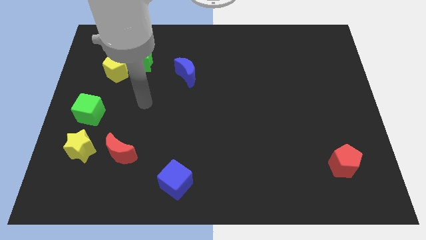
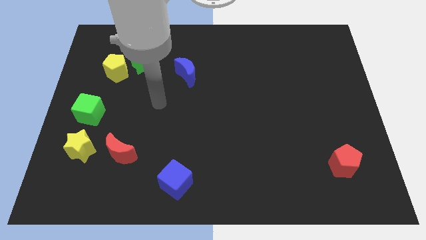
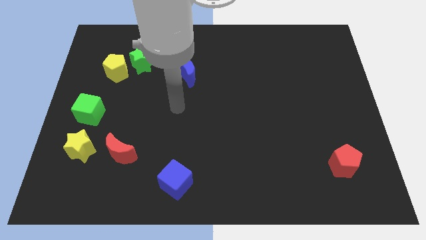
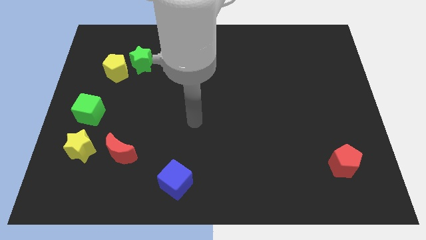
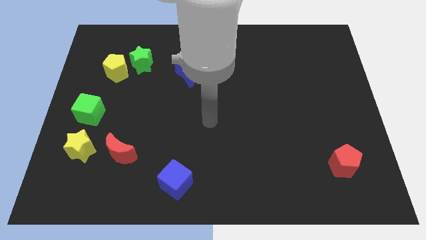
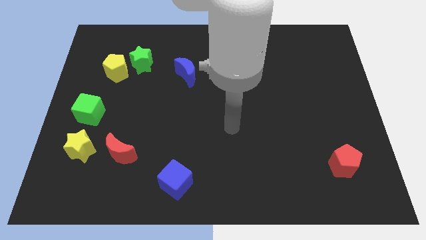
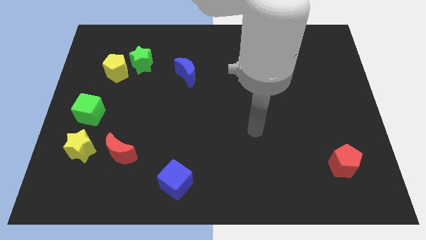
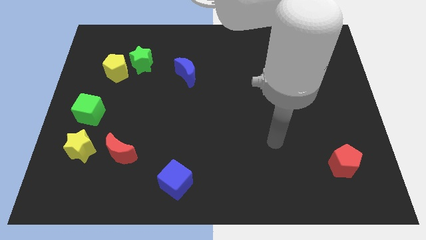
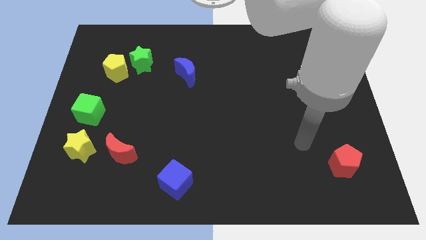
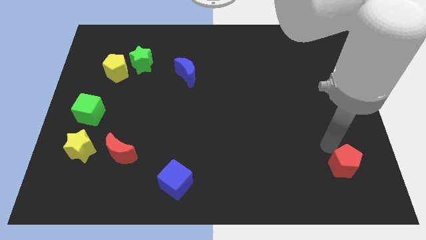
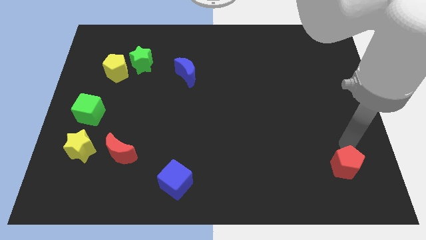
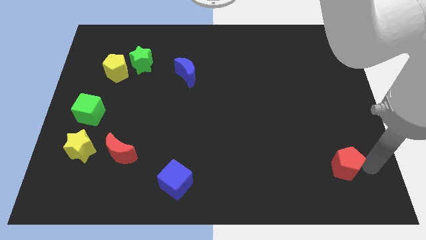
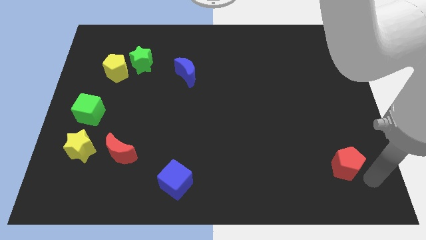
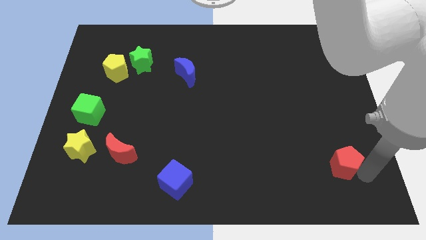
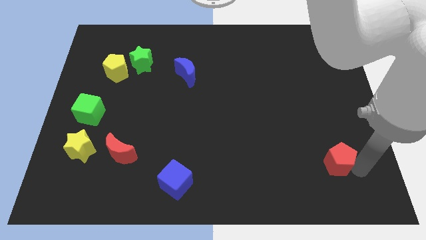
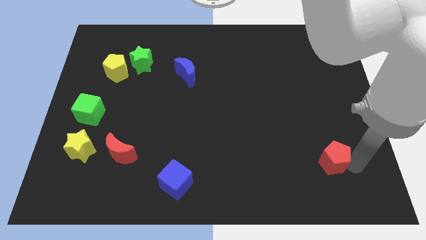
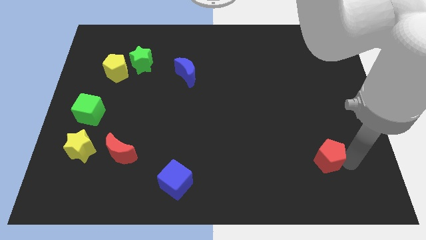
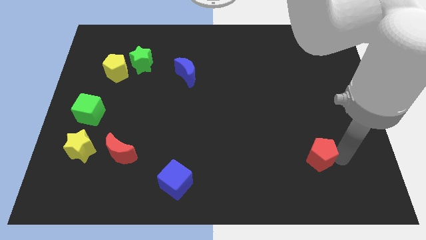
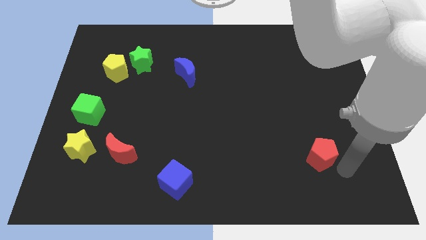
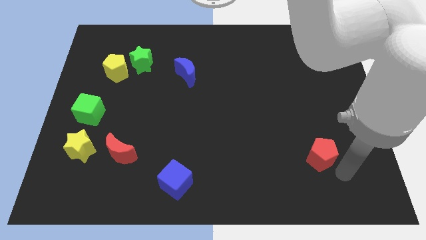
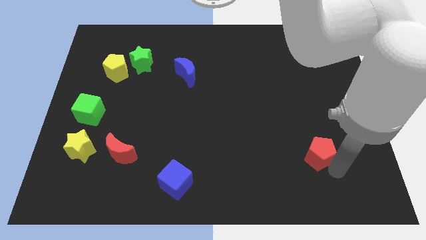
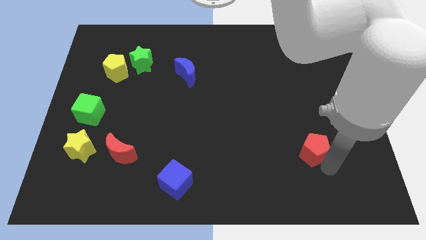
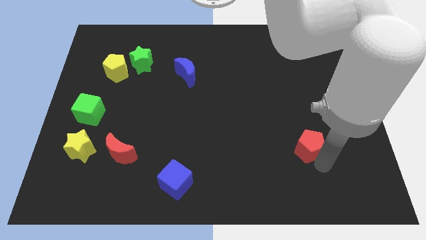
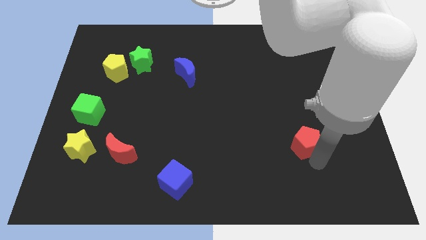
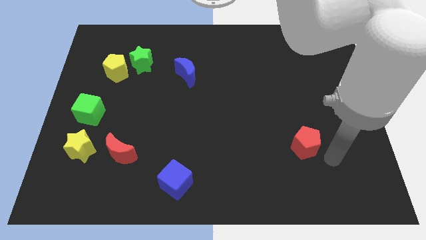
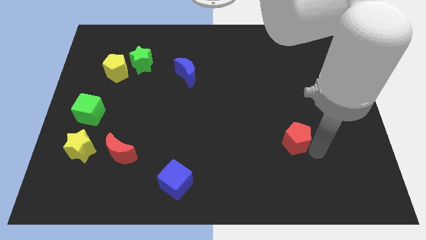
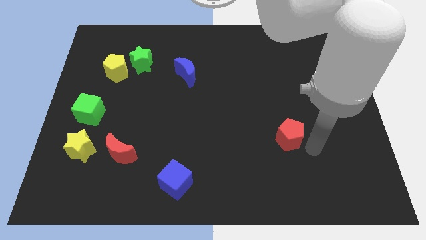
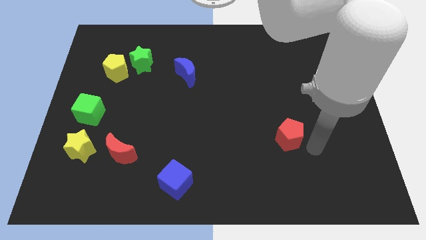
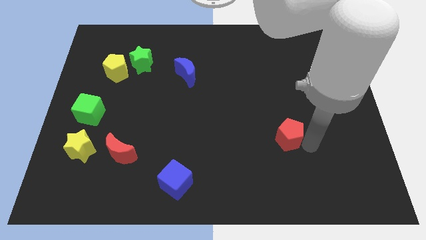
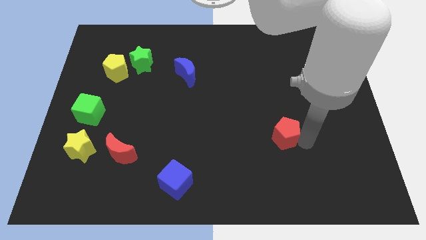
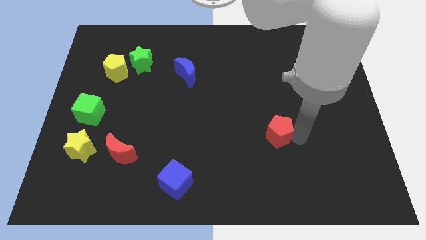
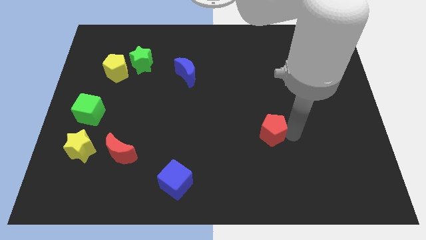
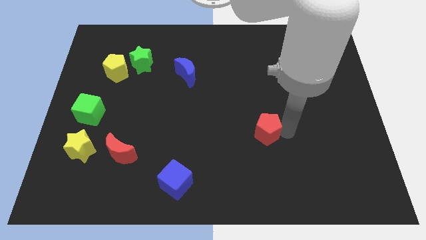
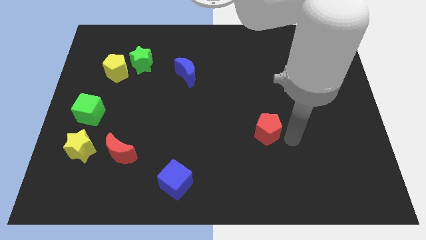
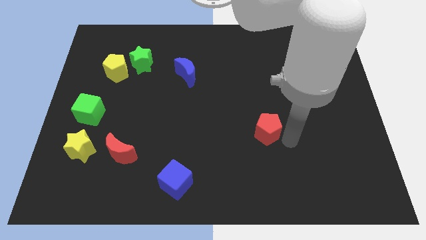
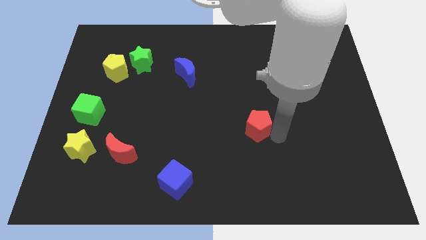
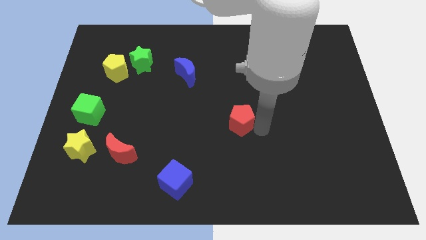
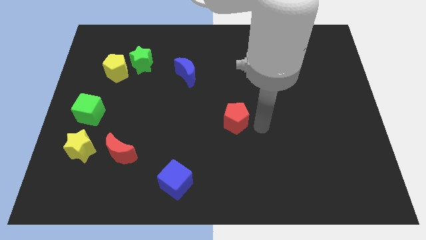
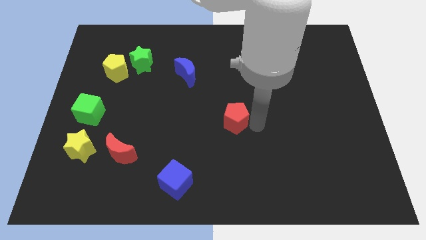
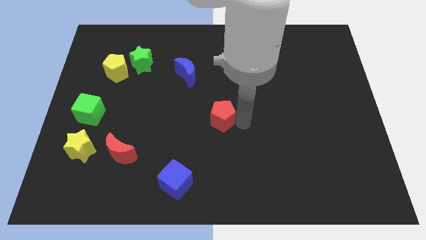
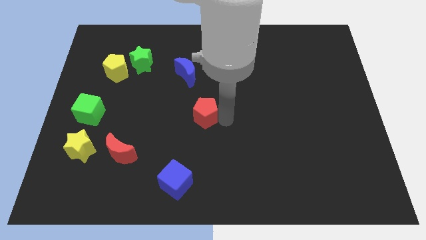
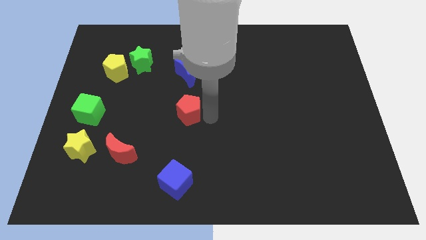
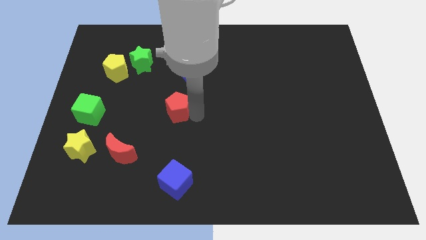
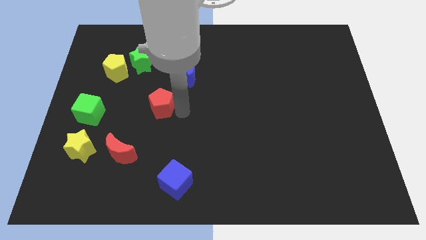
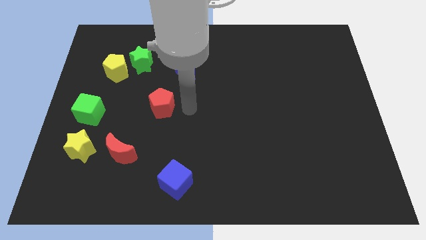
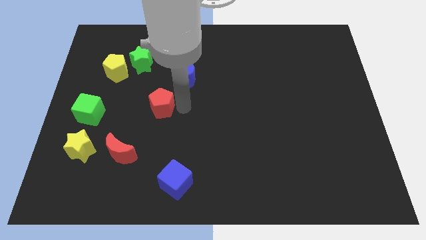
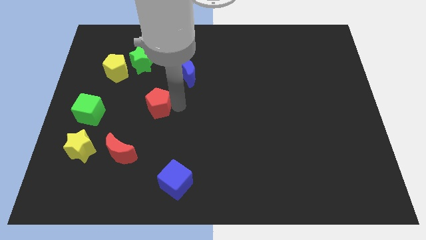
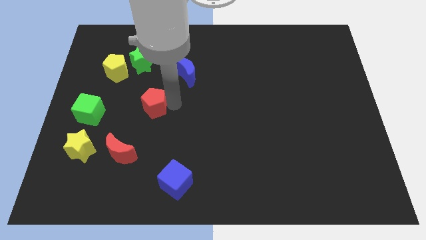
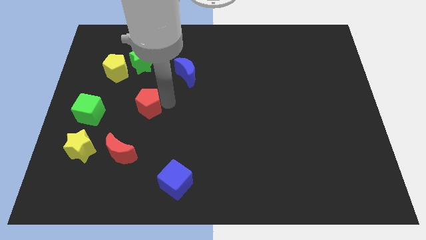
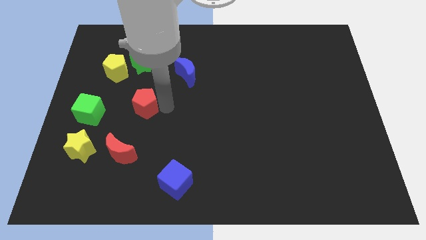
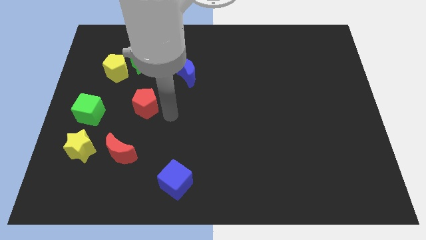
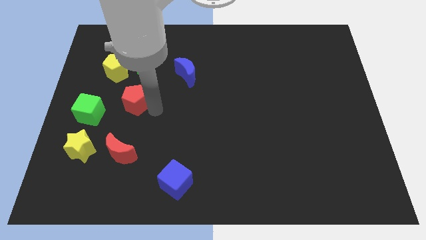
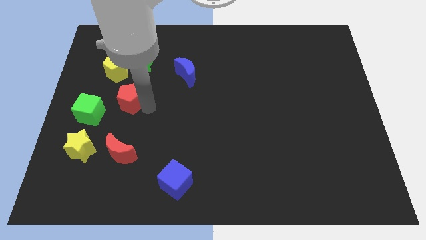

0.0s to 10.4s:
slide the red pentagon diagonally up and to the right of the green cube

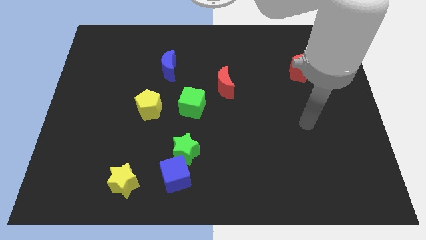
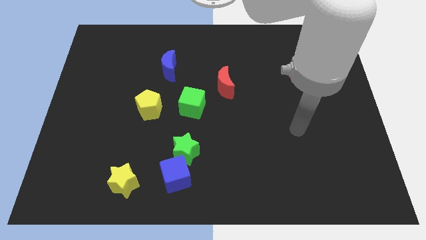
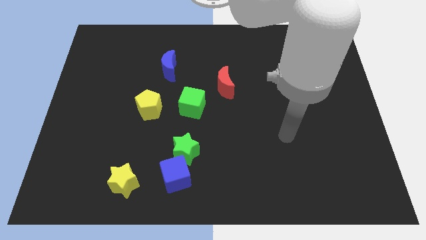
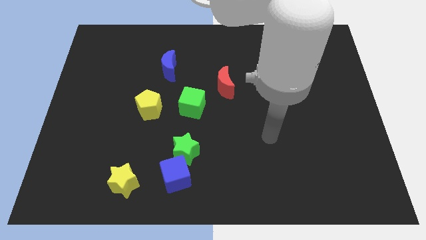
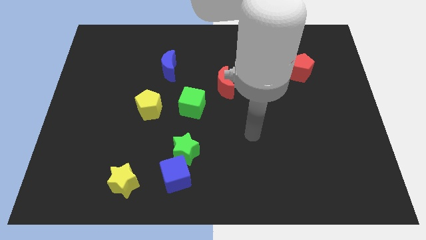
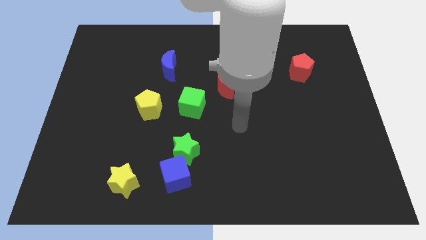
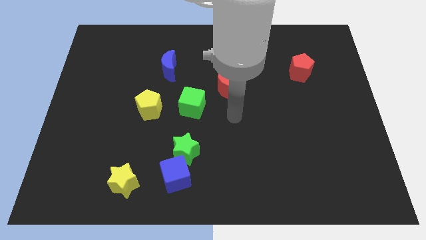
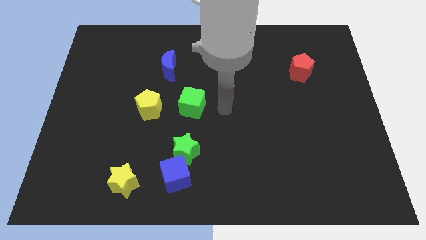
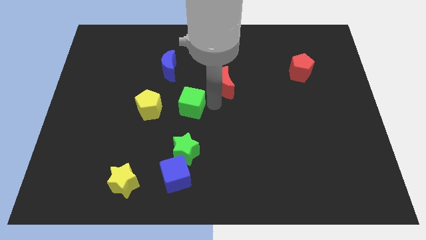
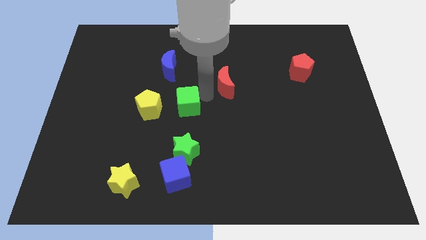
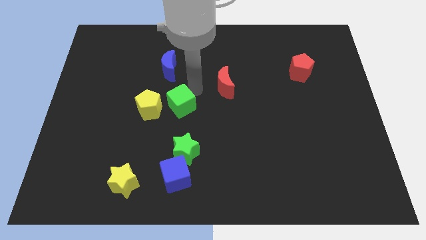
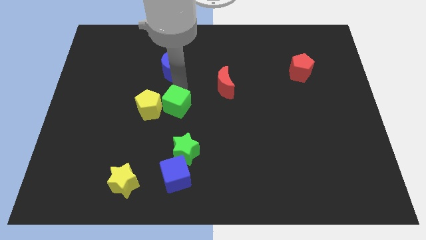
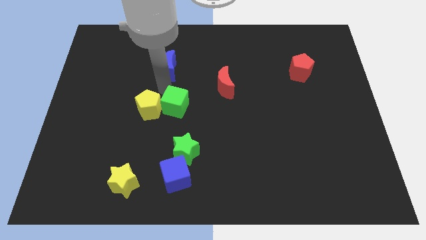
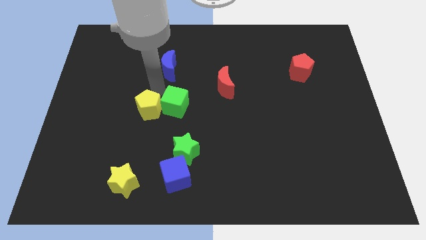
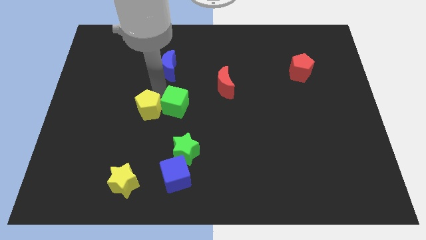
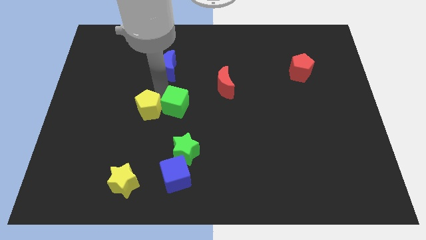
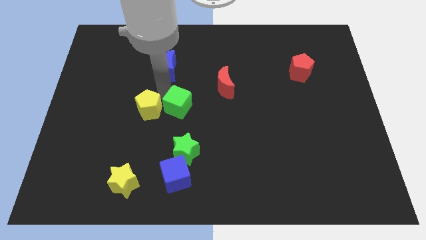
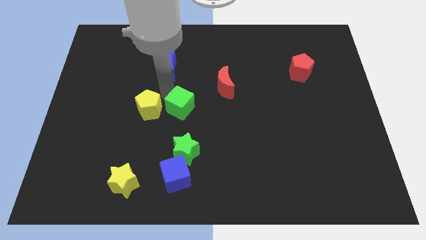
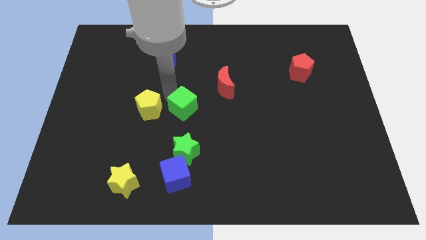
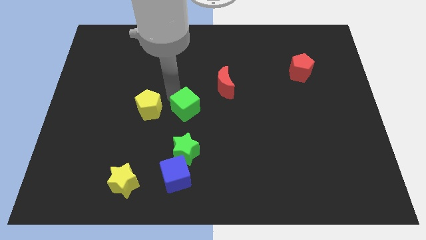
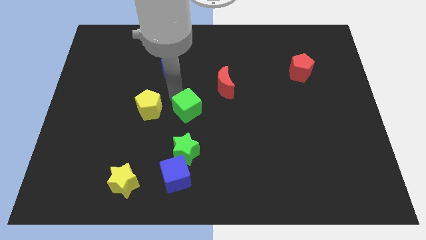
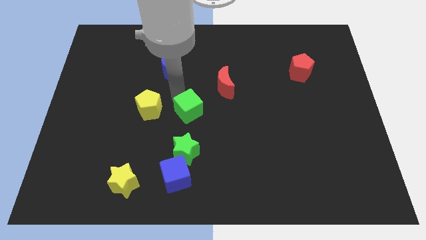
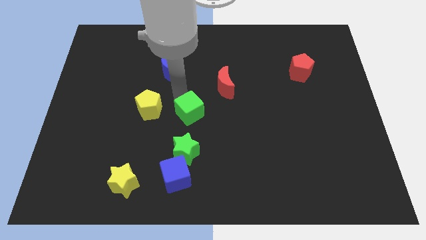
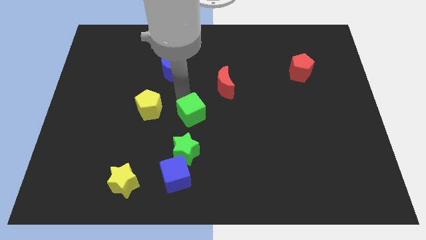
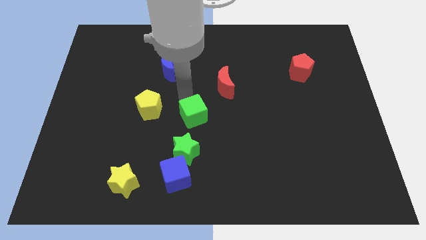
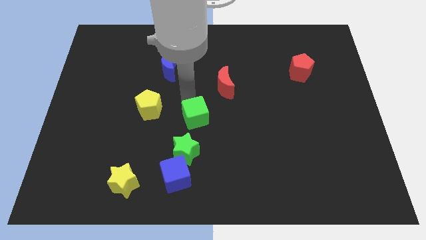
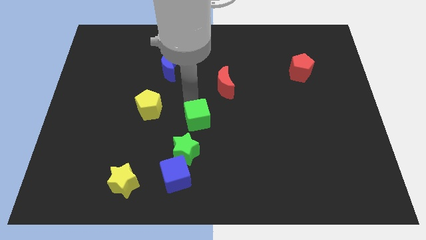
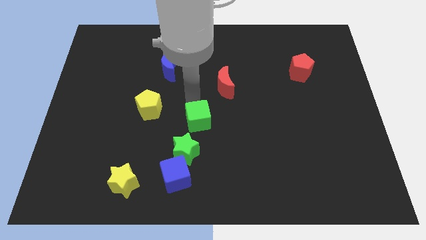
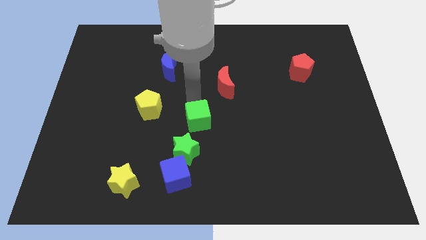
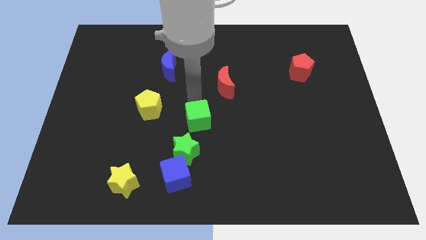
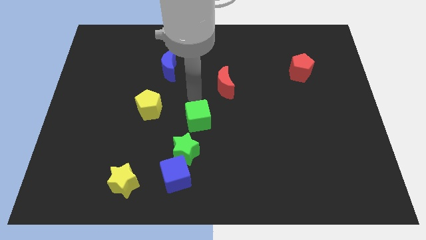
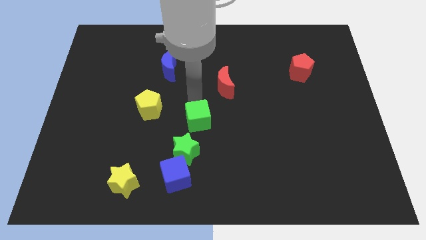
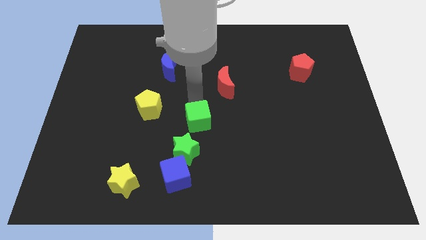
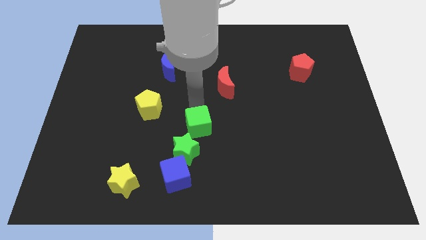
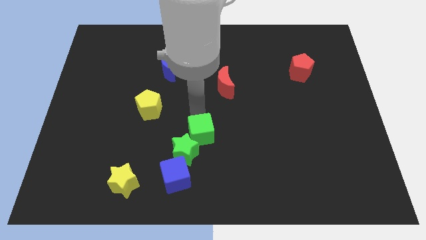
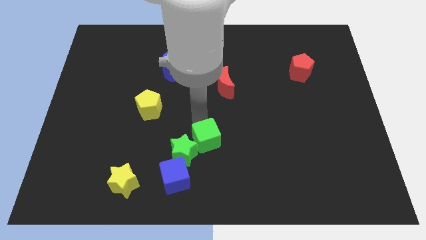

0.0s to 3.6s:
slide the green cube to the top right of the blue cube
